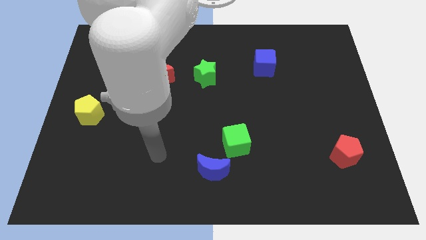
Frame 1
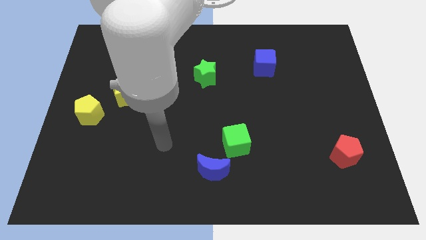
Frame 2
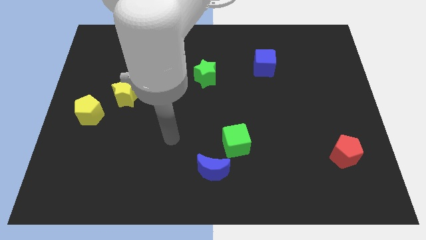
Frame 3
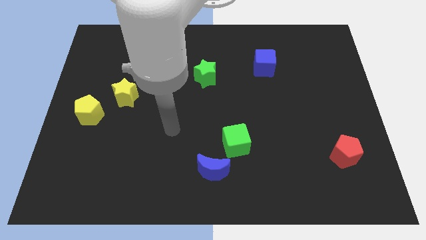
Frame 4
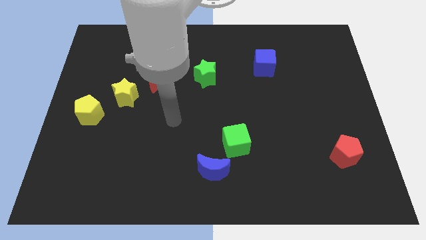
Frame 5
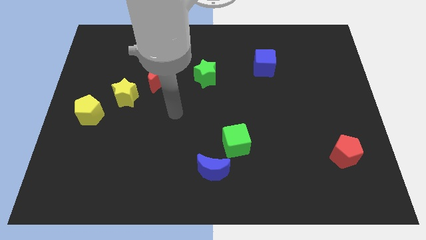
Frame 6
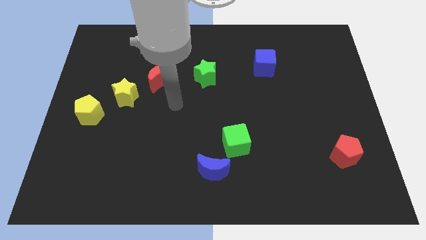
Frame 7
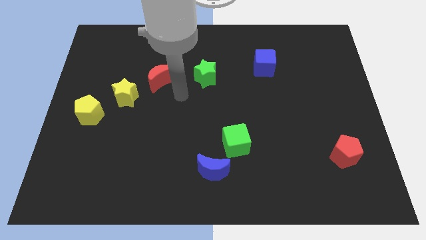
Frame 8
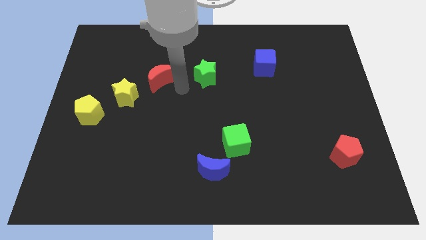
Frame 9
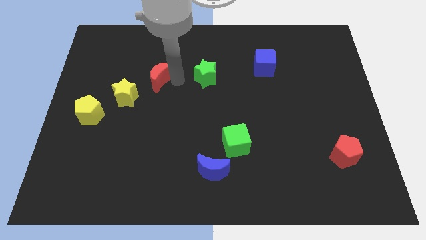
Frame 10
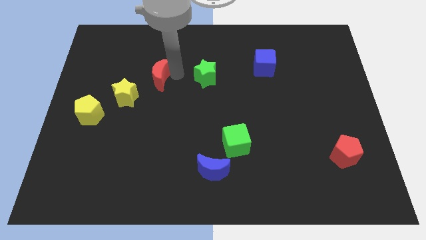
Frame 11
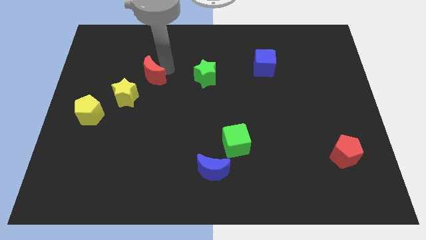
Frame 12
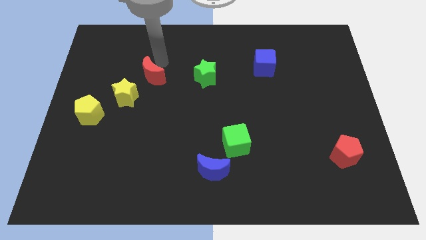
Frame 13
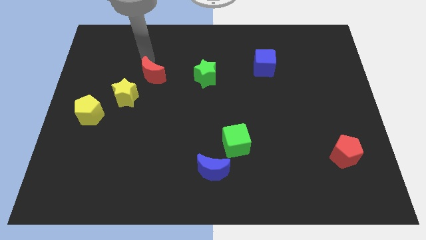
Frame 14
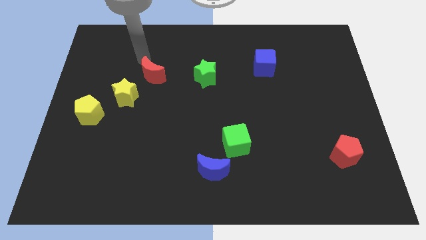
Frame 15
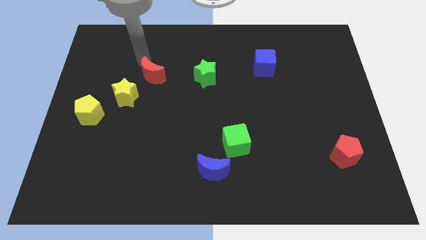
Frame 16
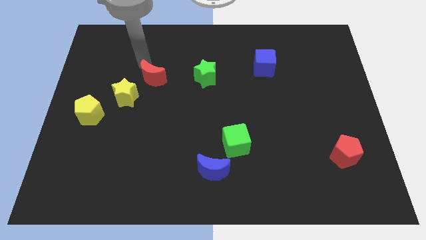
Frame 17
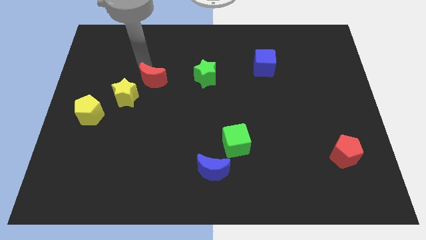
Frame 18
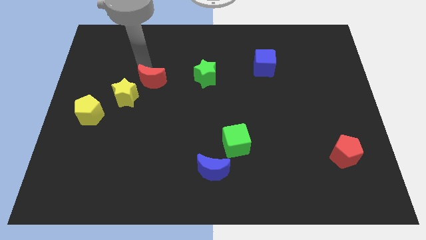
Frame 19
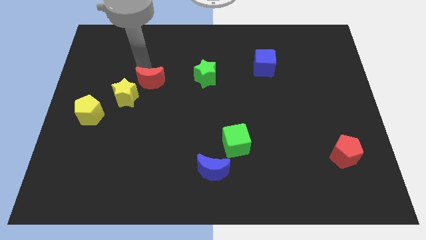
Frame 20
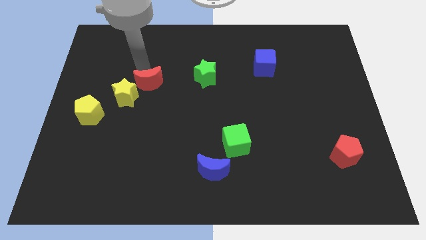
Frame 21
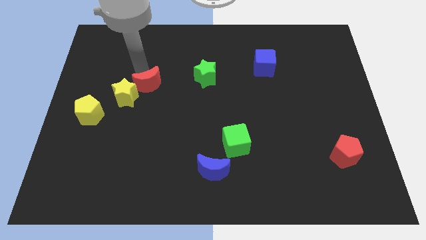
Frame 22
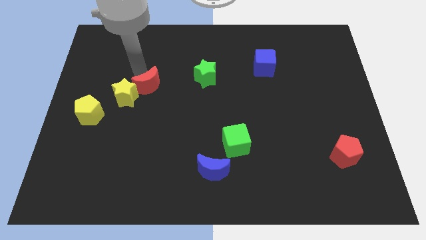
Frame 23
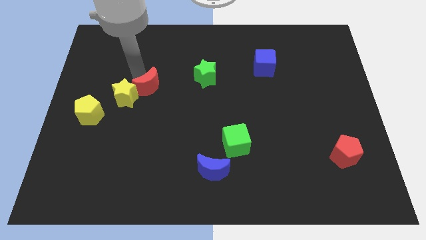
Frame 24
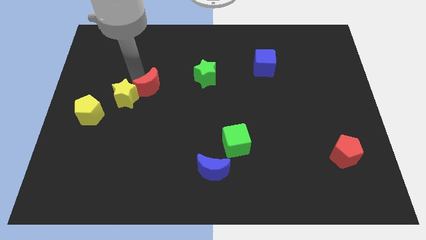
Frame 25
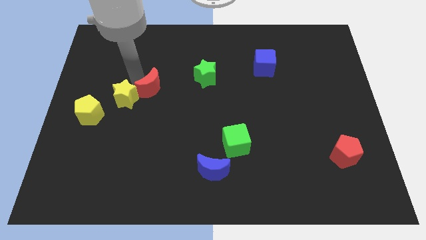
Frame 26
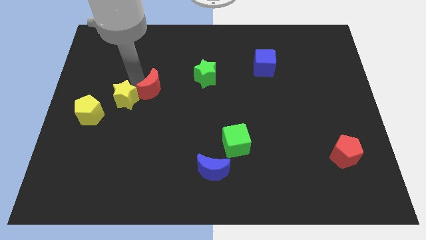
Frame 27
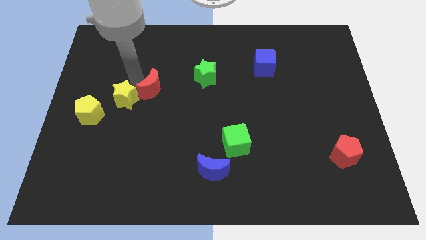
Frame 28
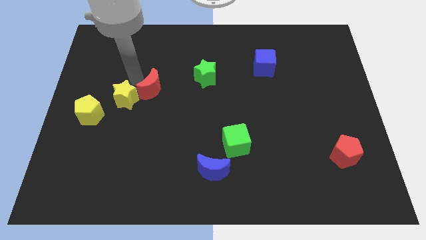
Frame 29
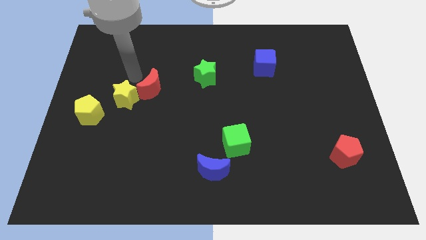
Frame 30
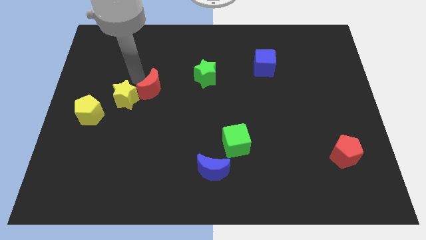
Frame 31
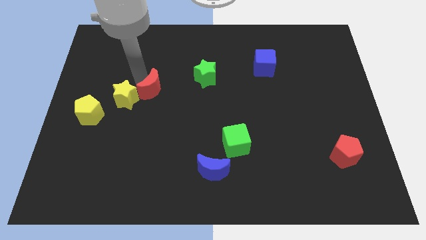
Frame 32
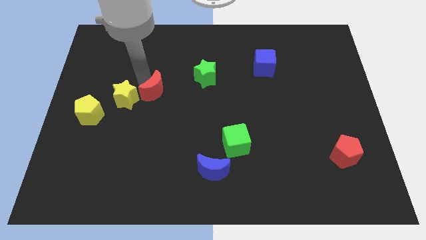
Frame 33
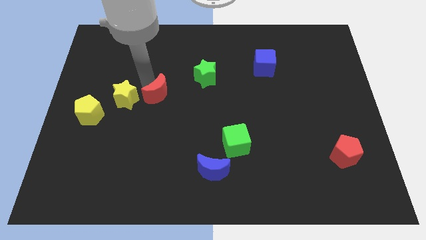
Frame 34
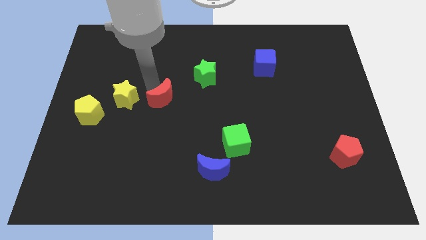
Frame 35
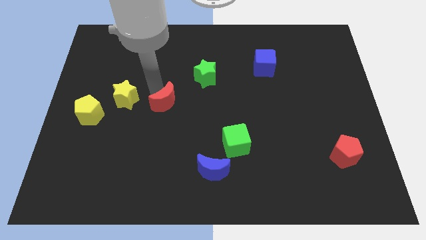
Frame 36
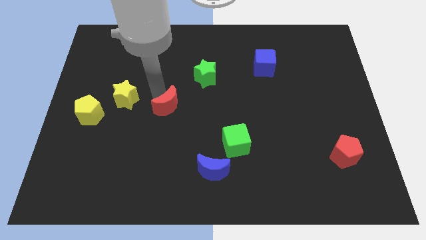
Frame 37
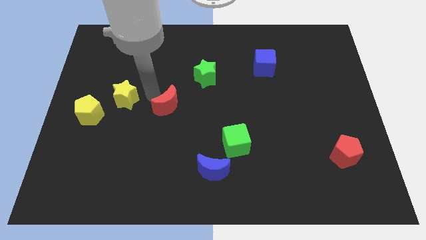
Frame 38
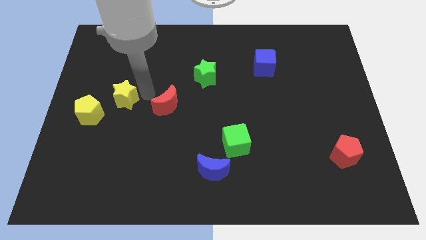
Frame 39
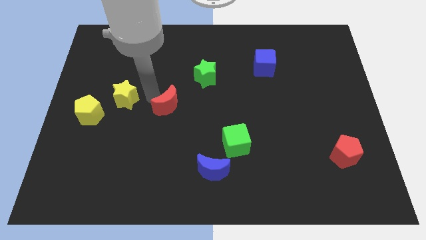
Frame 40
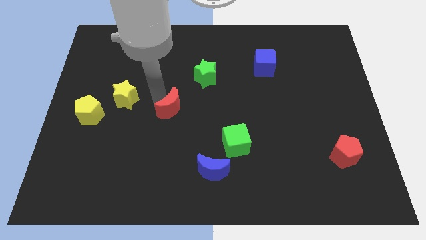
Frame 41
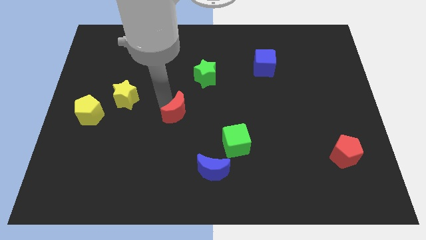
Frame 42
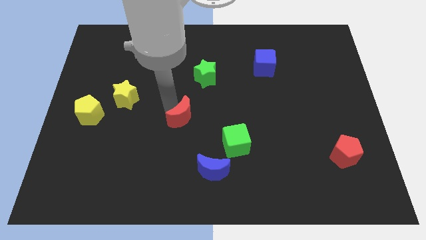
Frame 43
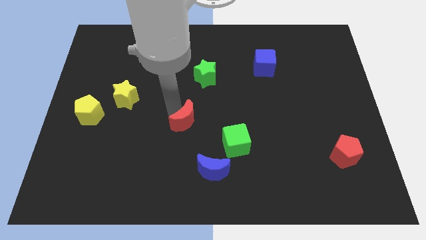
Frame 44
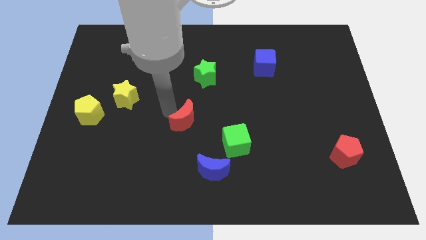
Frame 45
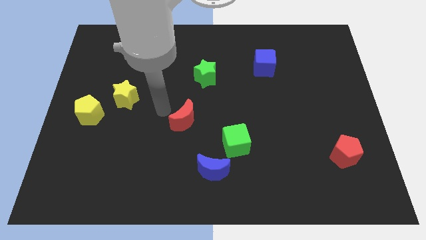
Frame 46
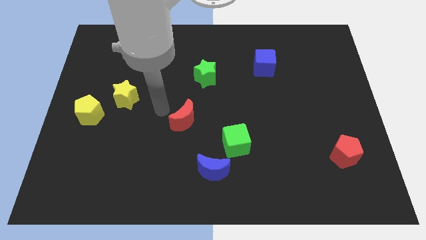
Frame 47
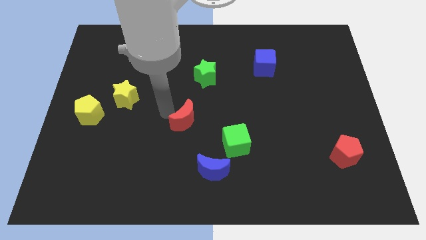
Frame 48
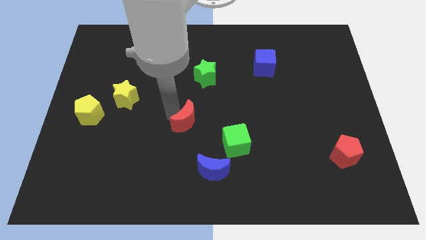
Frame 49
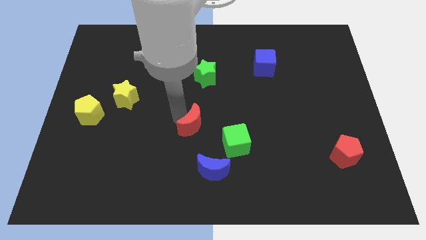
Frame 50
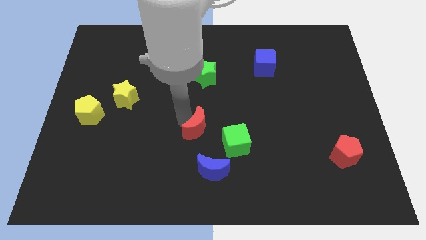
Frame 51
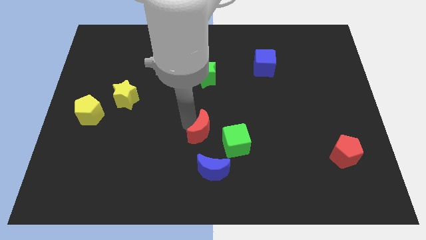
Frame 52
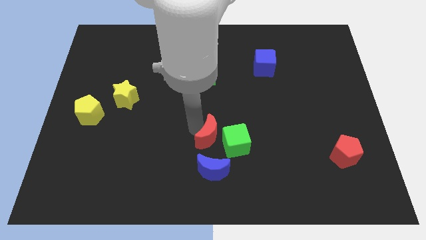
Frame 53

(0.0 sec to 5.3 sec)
put the red moon next to the green cube

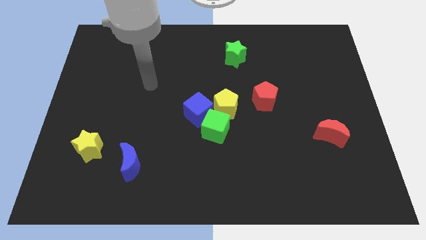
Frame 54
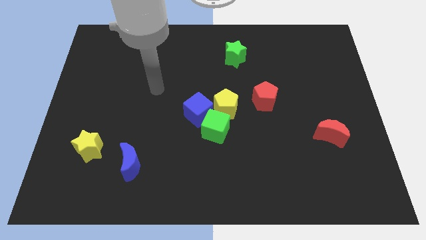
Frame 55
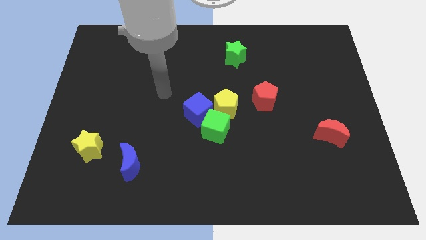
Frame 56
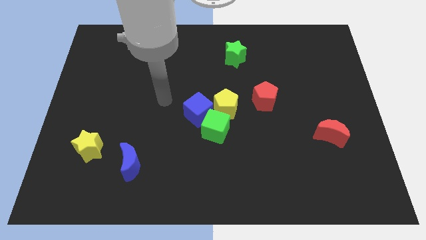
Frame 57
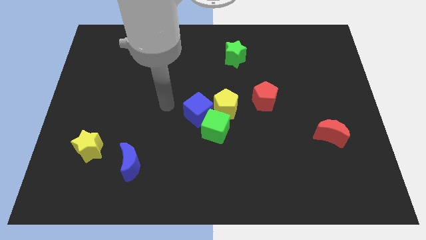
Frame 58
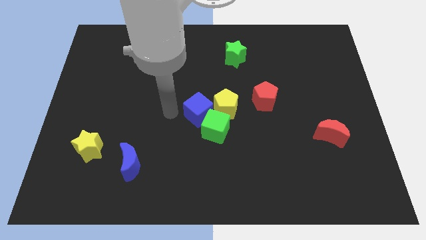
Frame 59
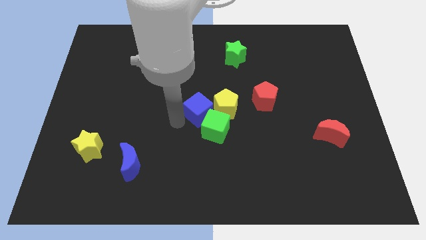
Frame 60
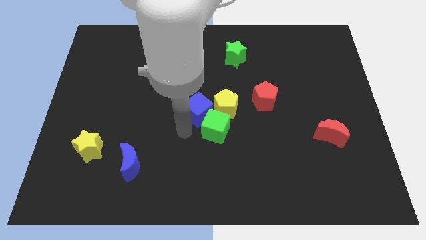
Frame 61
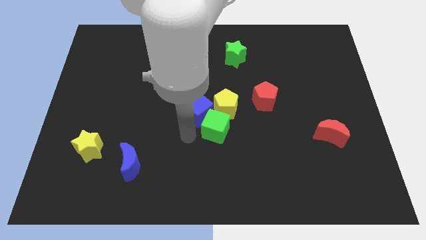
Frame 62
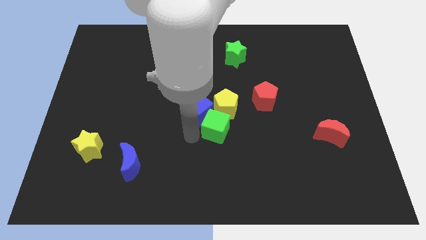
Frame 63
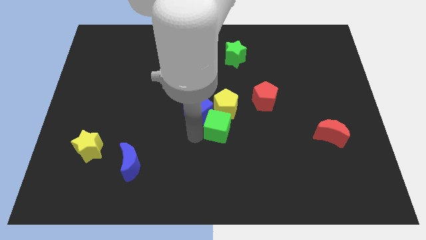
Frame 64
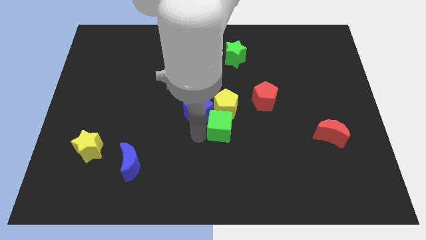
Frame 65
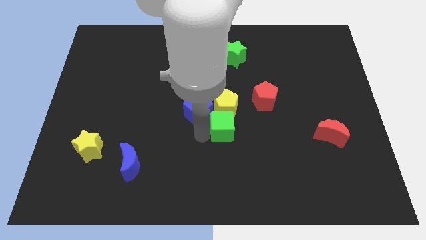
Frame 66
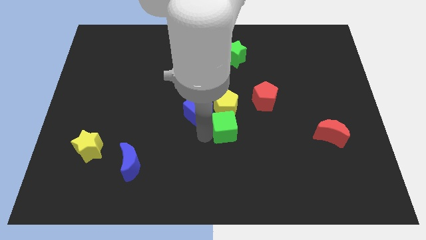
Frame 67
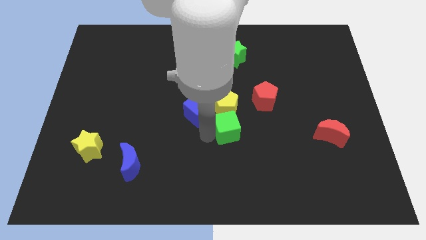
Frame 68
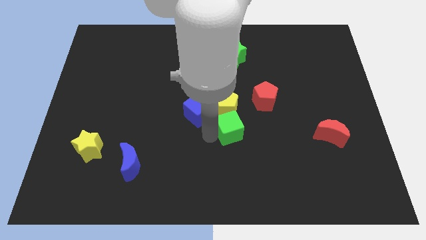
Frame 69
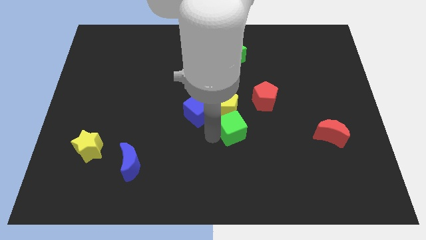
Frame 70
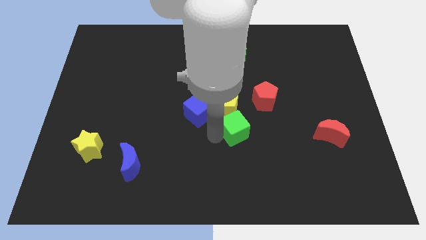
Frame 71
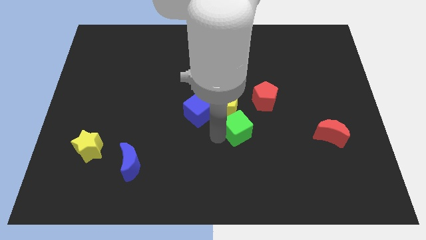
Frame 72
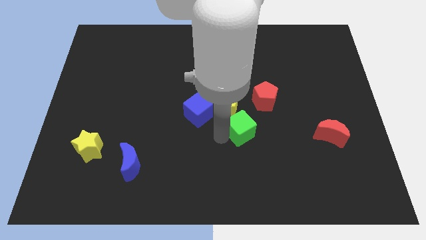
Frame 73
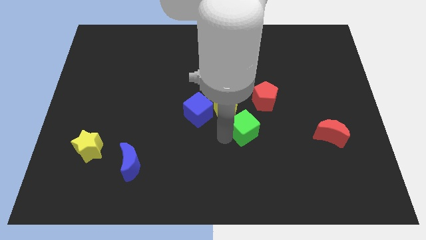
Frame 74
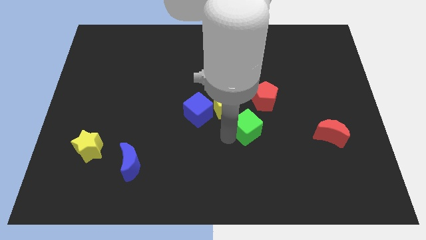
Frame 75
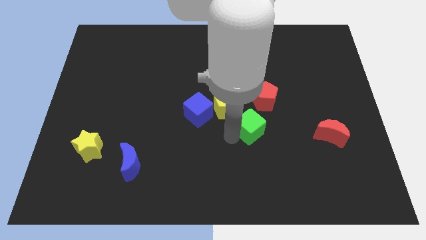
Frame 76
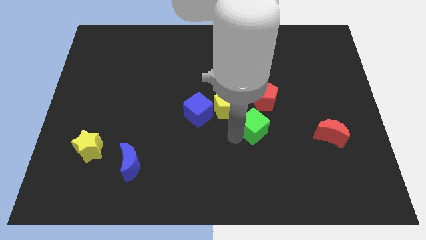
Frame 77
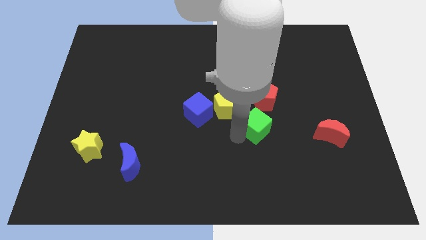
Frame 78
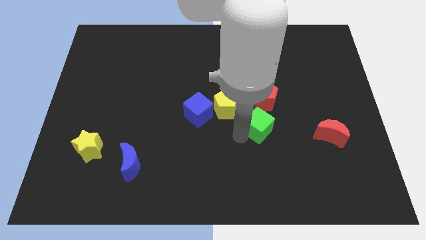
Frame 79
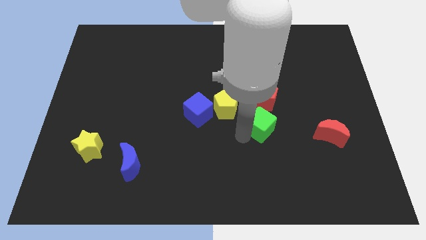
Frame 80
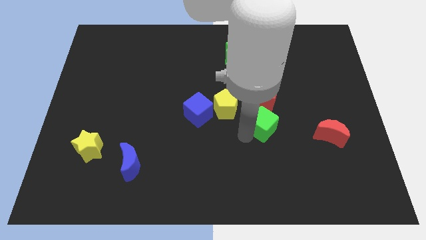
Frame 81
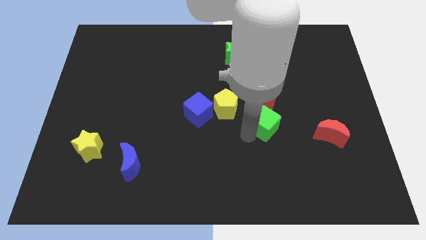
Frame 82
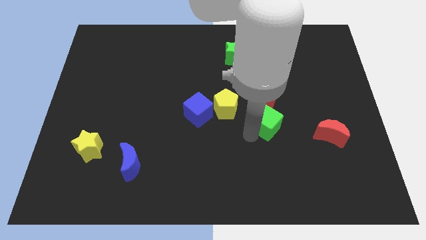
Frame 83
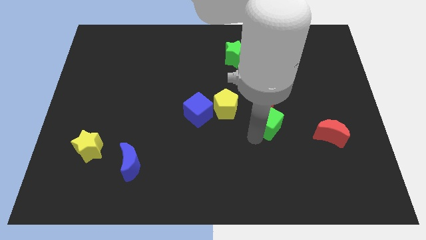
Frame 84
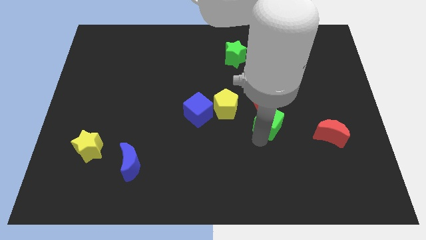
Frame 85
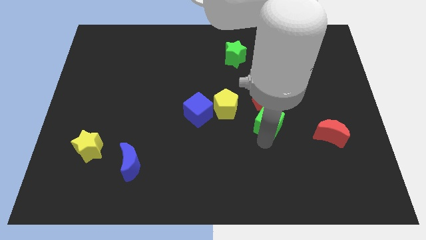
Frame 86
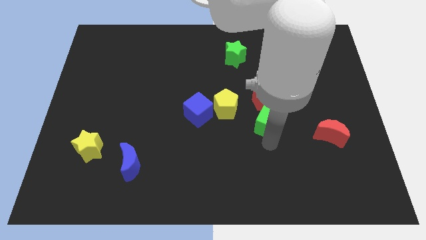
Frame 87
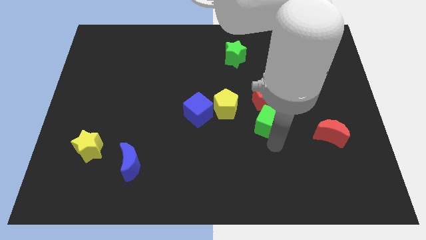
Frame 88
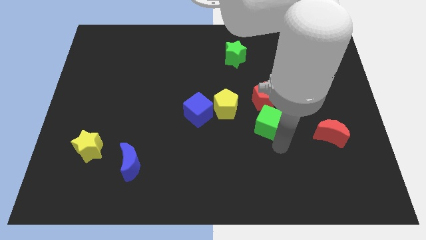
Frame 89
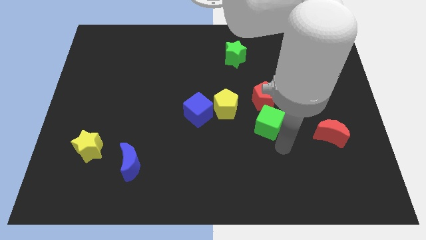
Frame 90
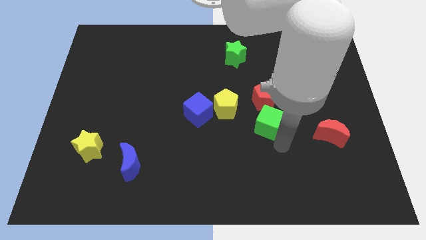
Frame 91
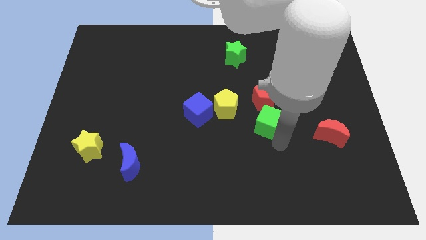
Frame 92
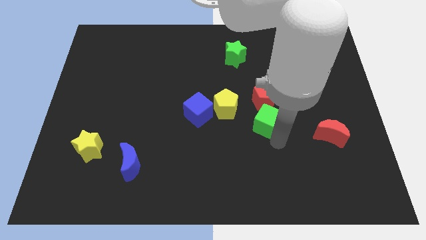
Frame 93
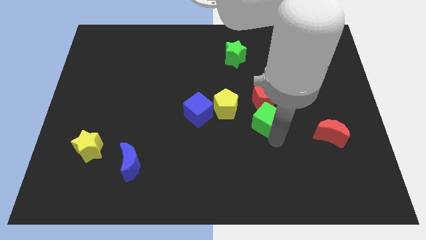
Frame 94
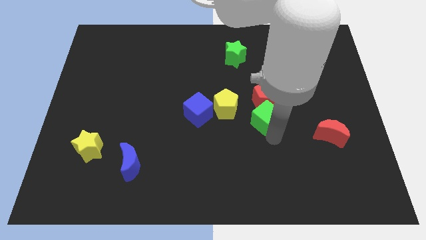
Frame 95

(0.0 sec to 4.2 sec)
put the green cube close to the red pentagon
